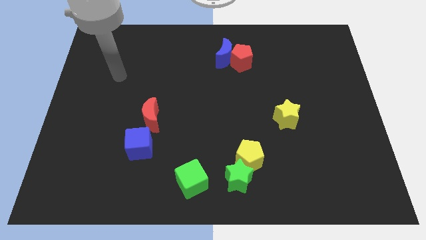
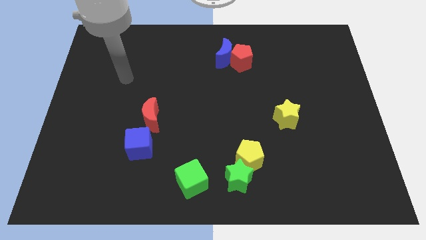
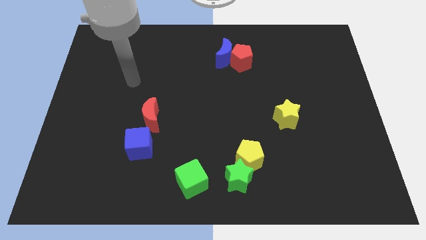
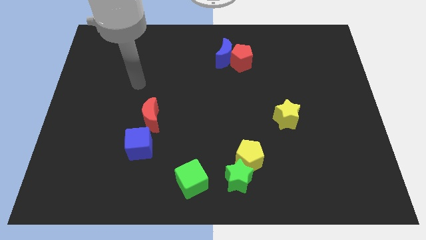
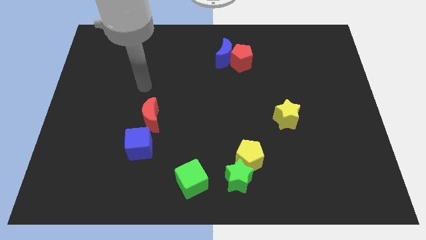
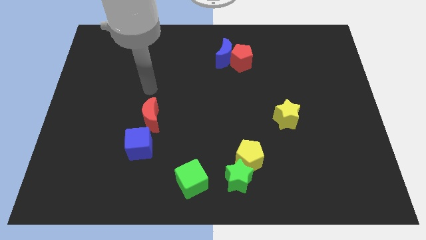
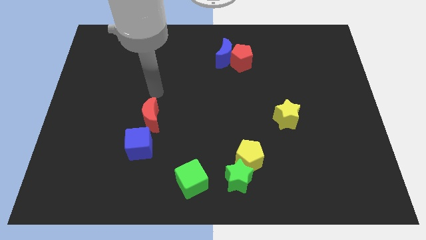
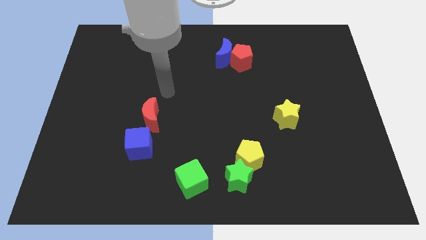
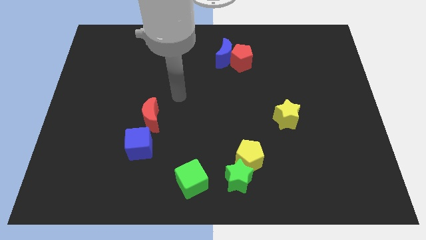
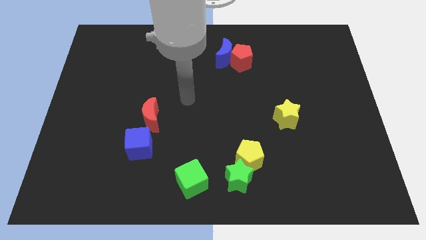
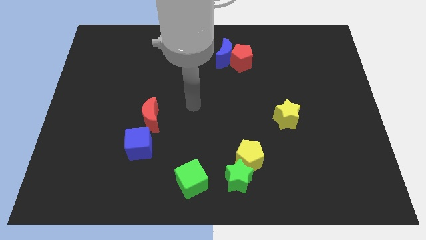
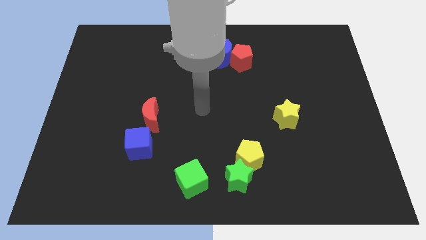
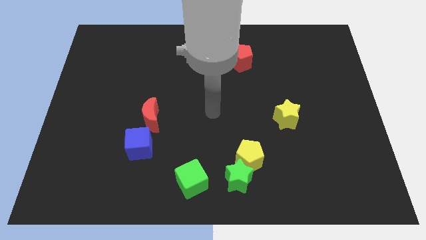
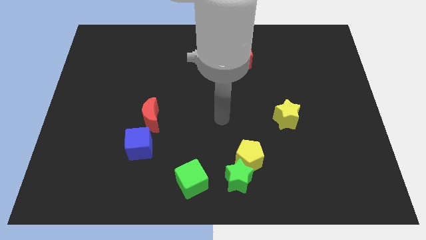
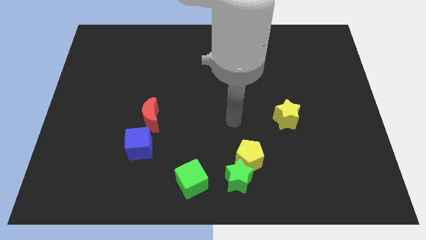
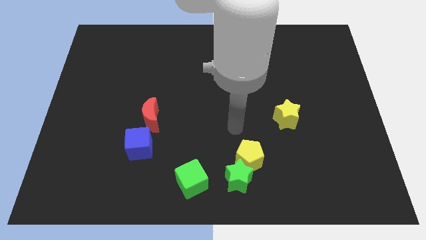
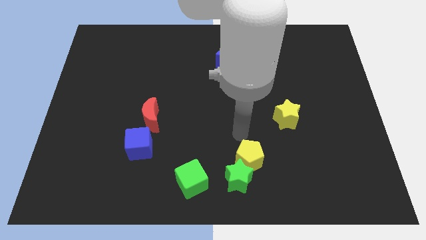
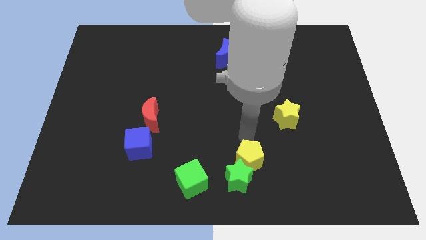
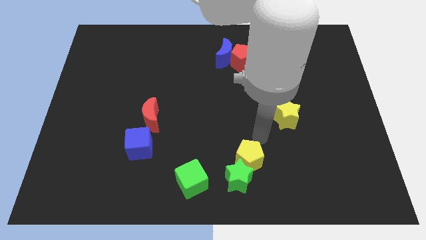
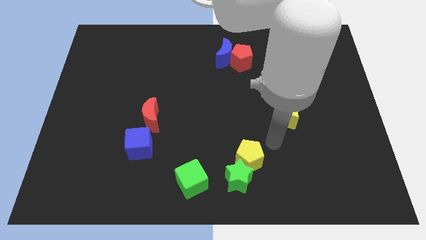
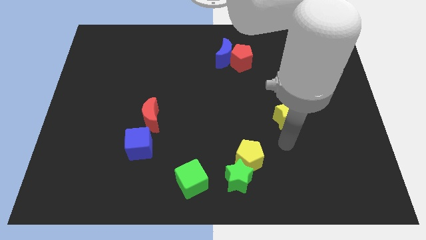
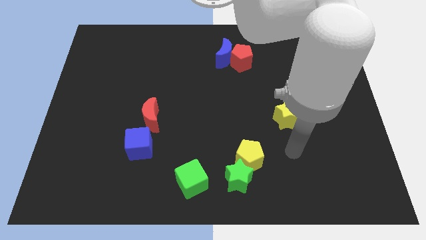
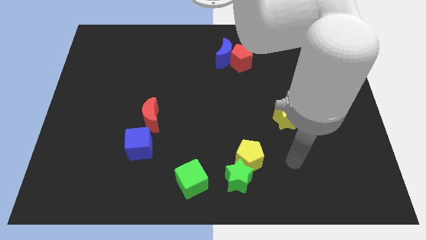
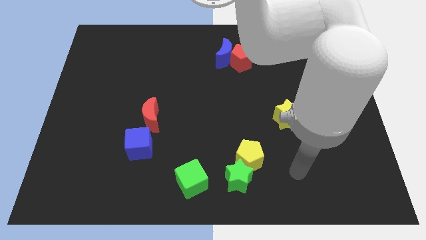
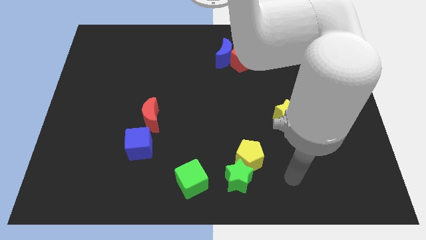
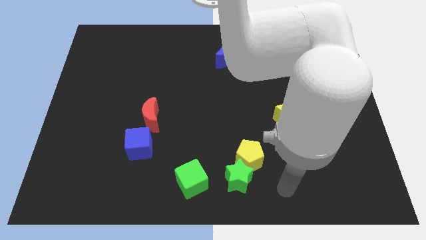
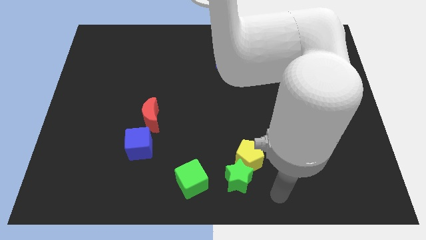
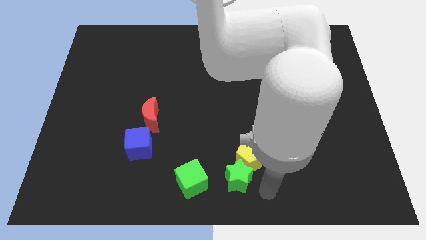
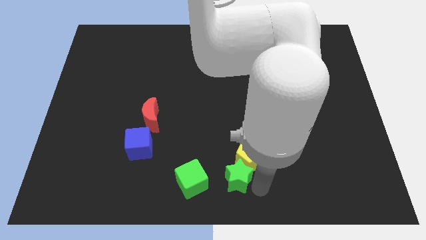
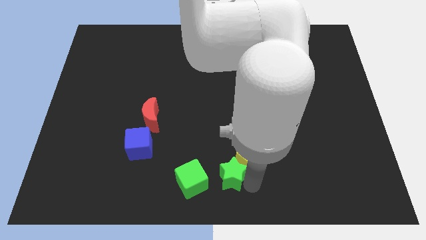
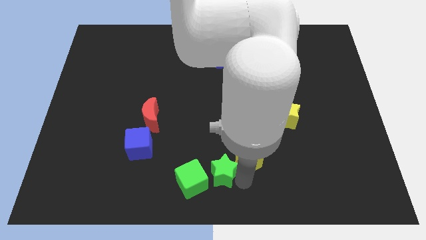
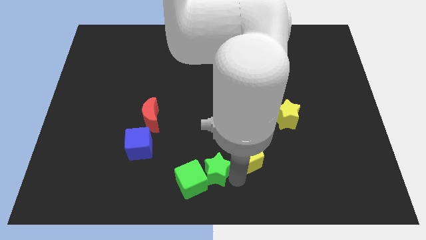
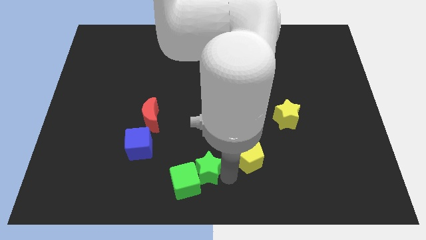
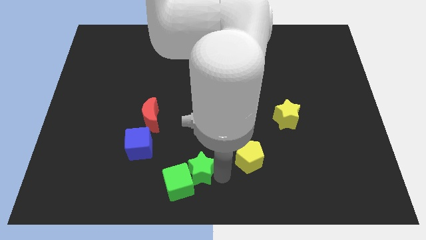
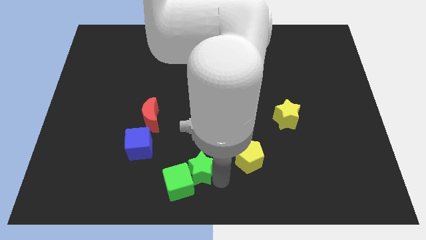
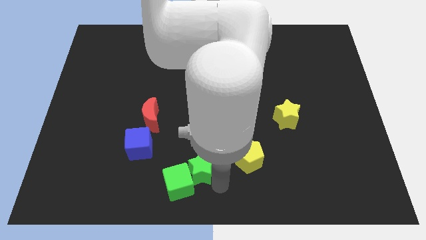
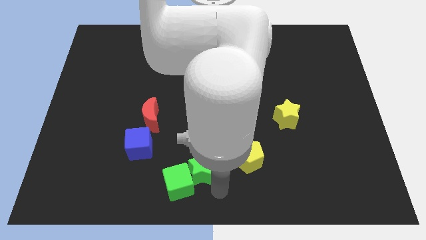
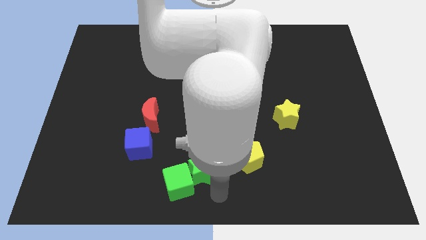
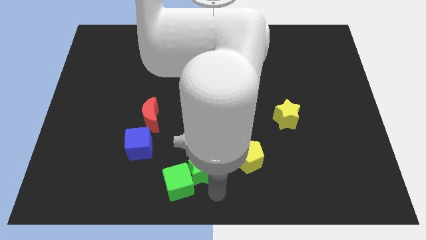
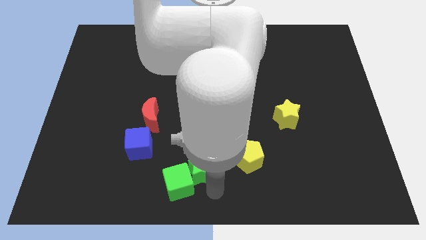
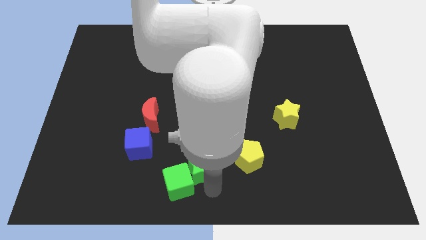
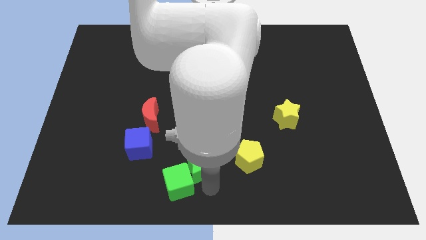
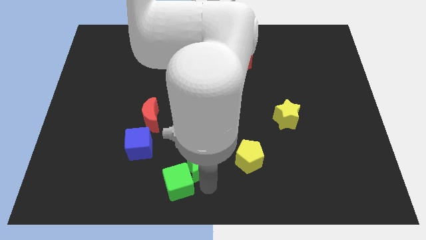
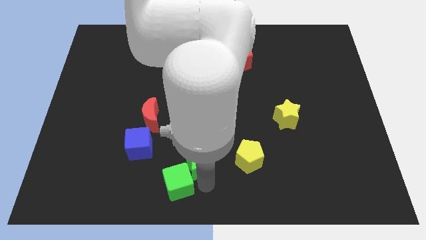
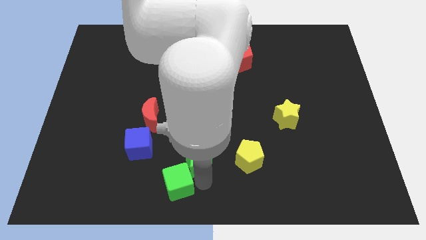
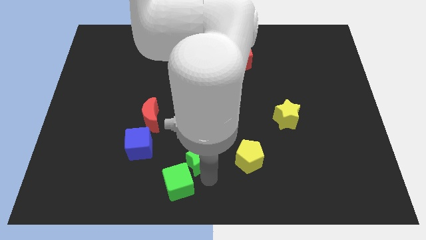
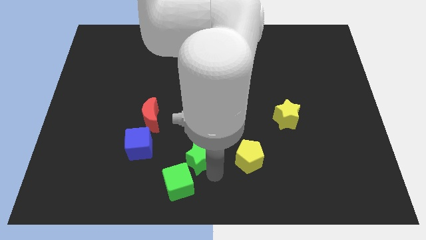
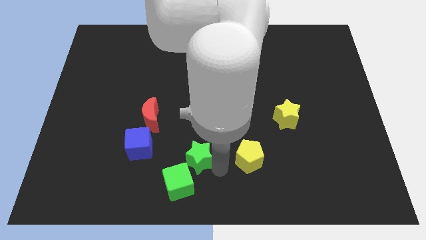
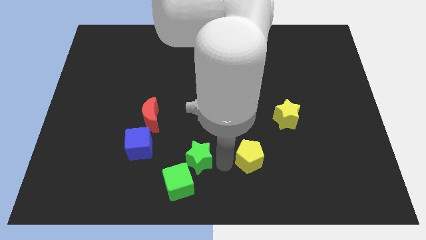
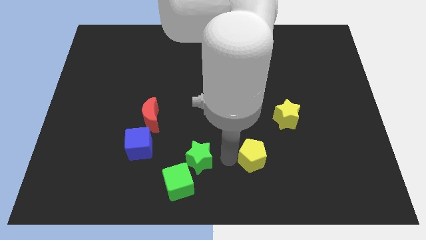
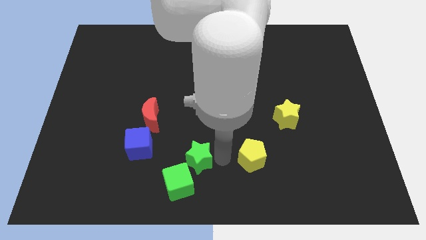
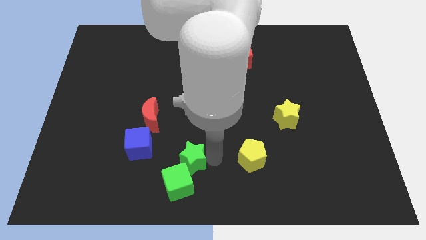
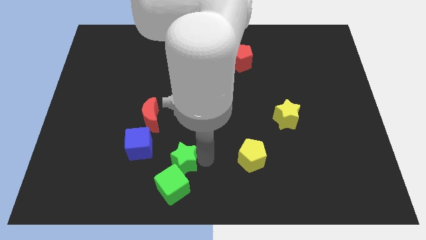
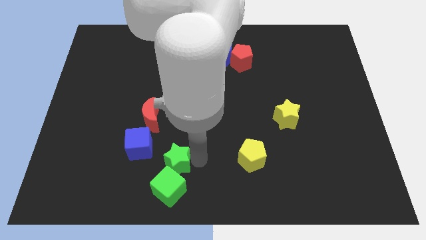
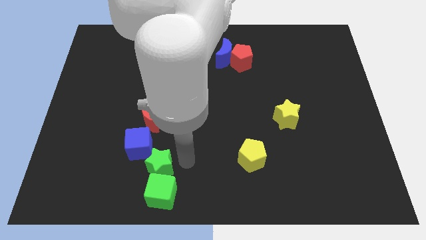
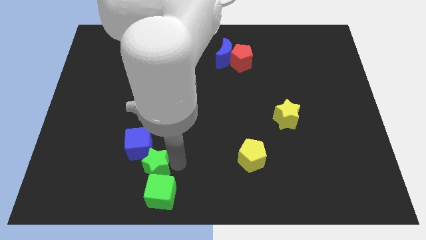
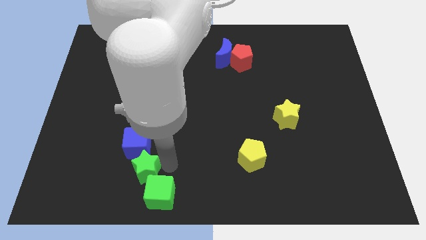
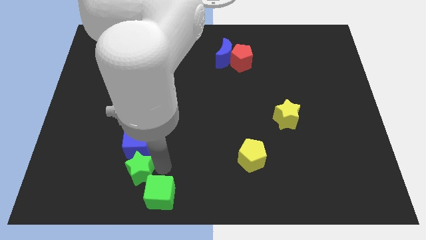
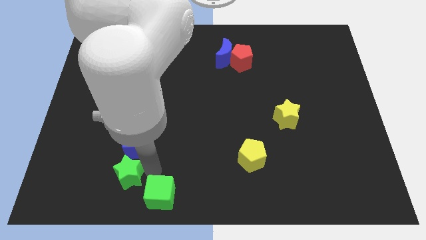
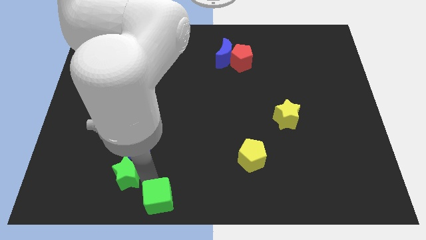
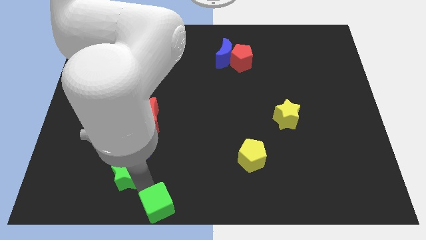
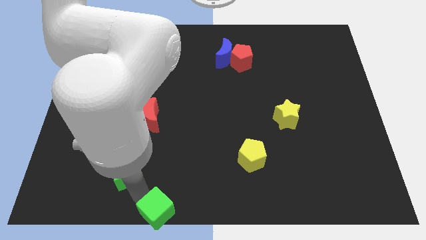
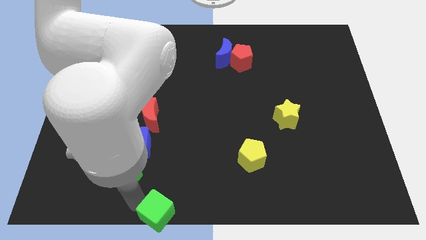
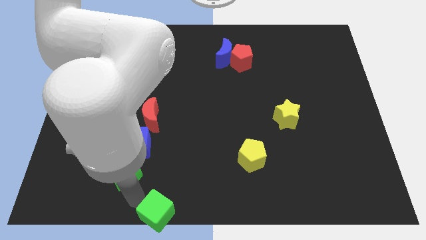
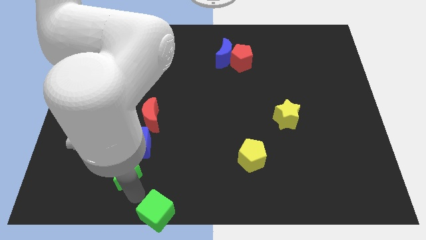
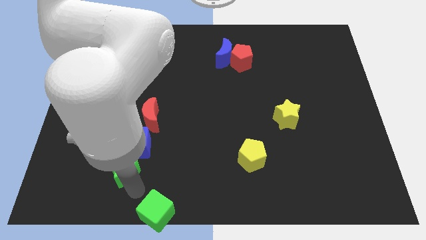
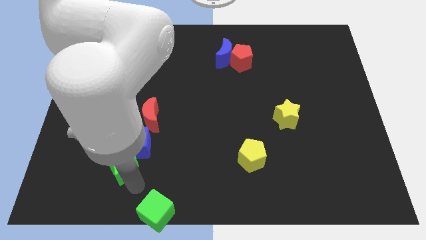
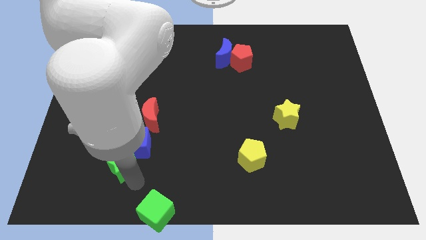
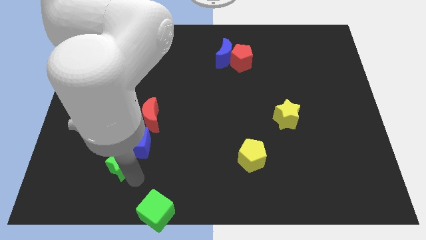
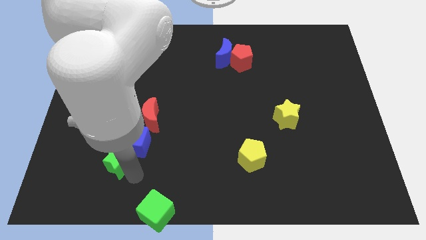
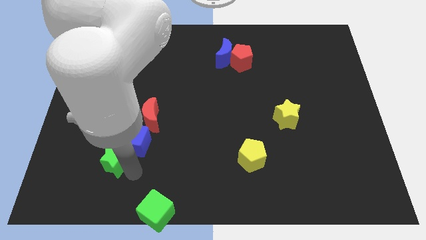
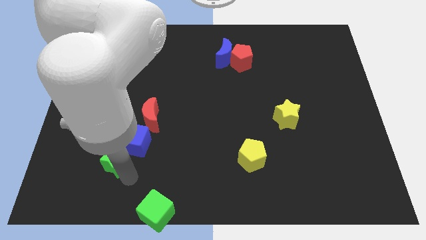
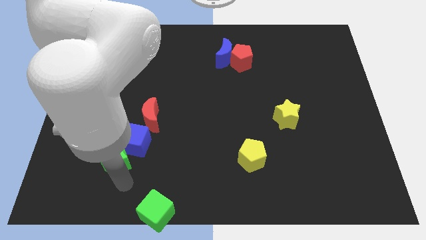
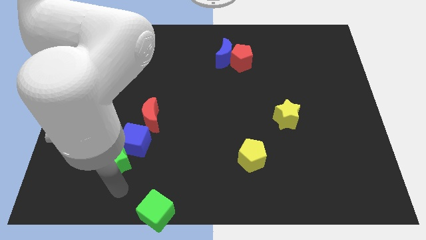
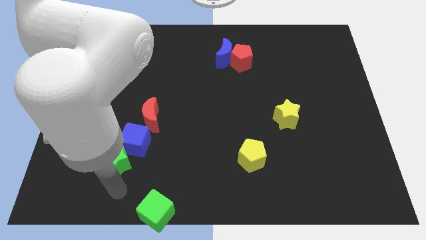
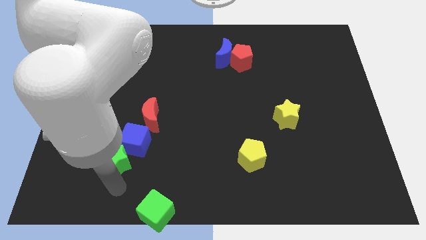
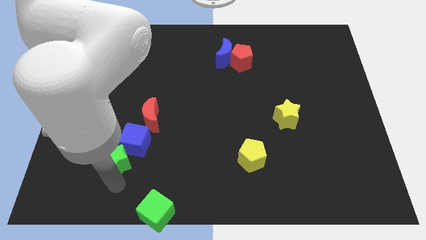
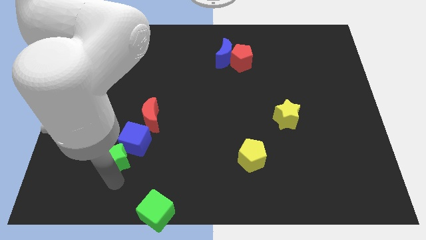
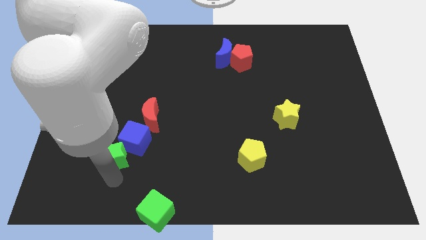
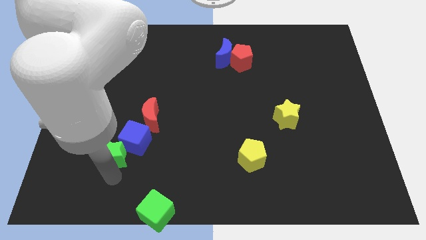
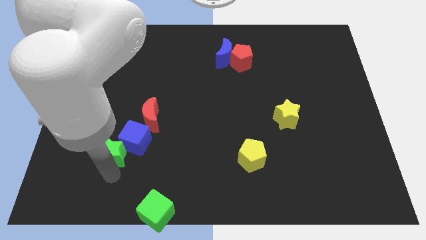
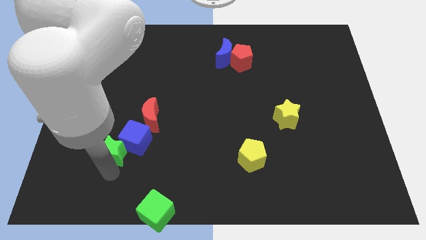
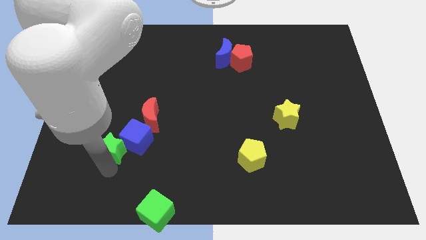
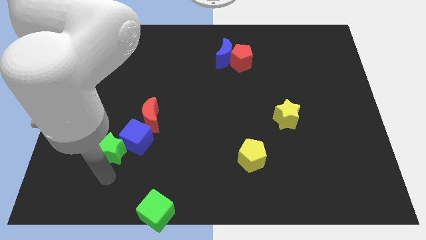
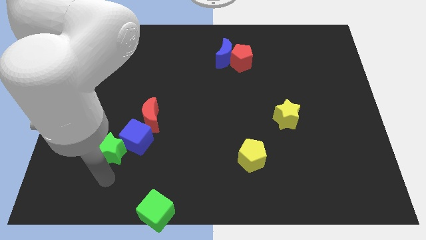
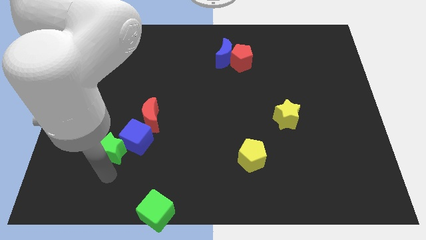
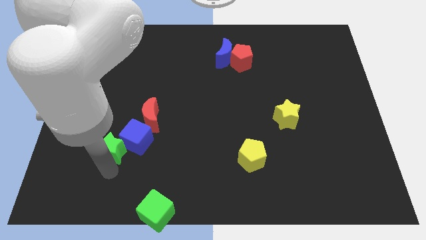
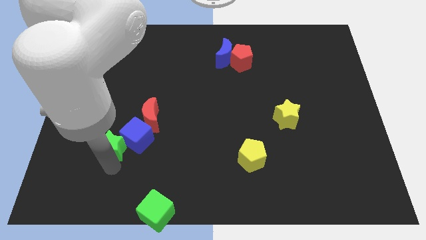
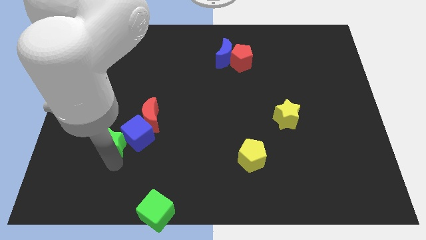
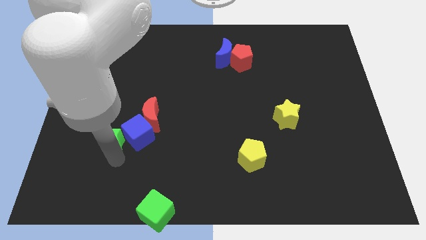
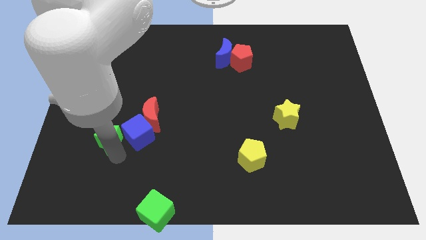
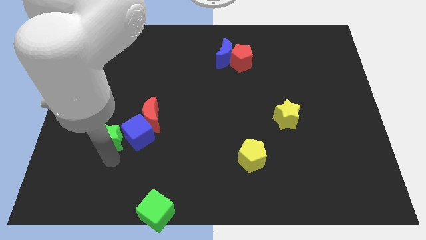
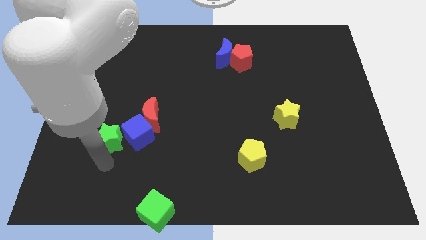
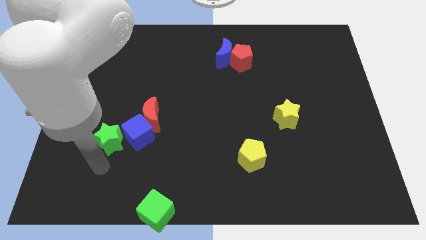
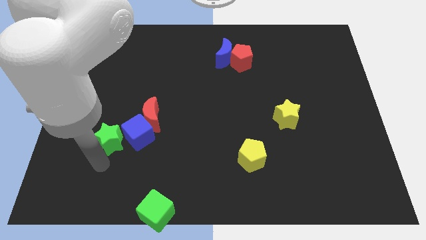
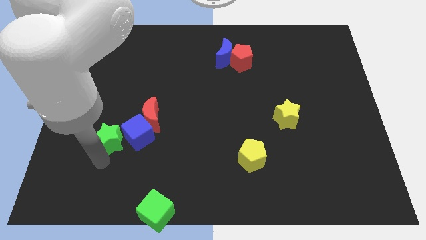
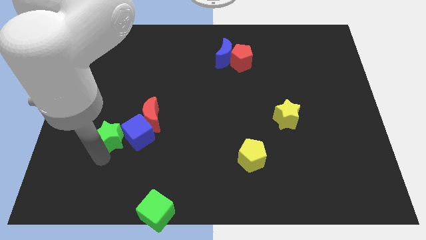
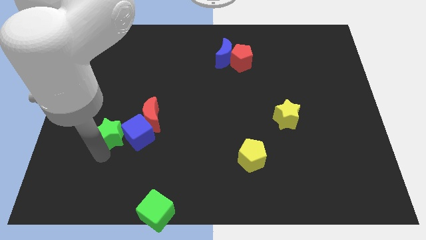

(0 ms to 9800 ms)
put the green star diagonally up and to the left of the blue cube
